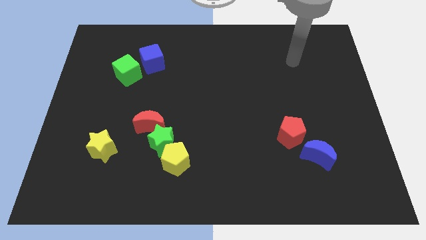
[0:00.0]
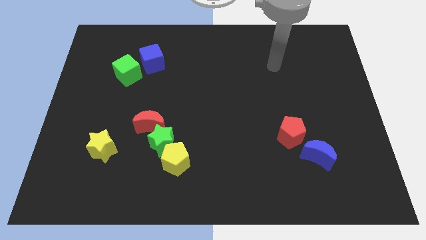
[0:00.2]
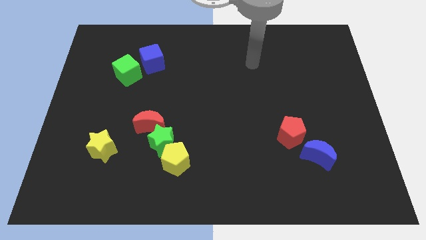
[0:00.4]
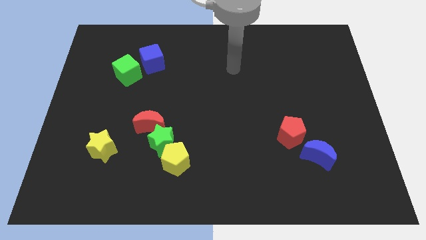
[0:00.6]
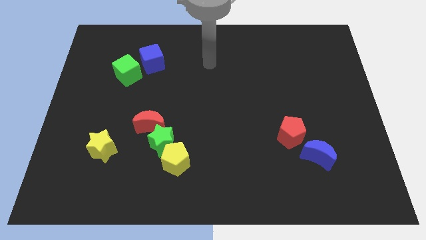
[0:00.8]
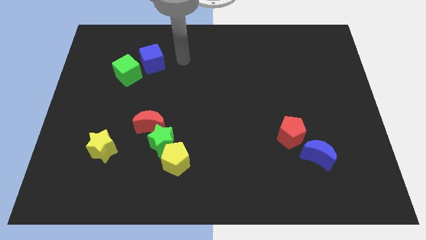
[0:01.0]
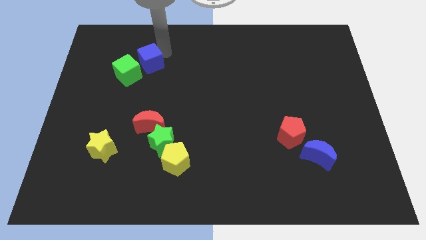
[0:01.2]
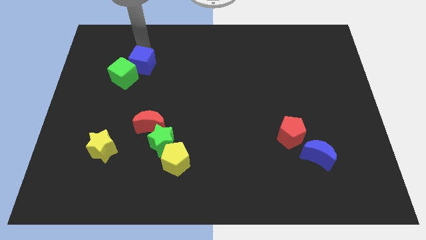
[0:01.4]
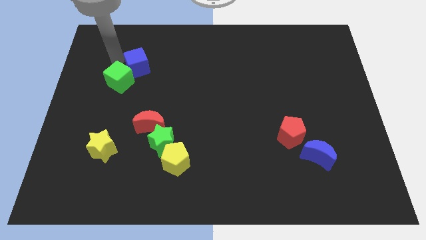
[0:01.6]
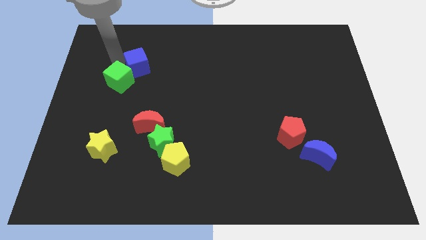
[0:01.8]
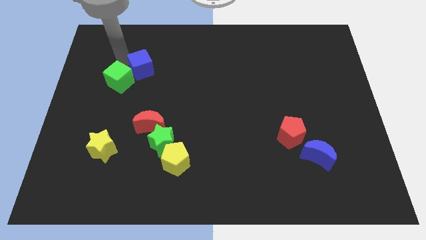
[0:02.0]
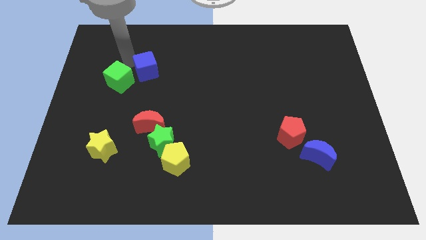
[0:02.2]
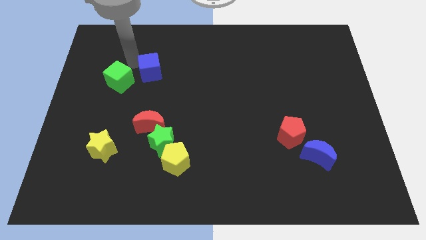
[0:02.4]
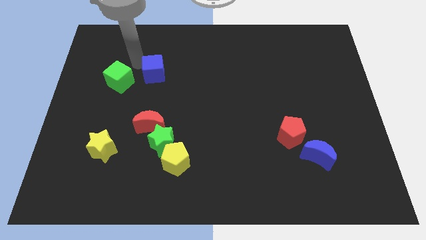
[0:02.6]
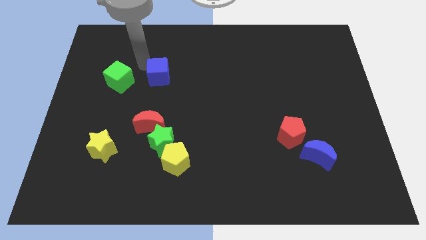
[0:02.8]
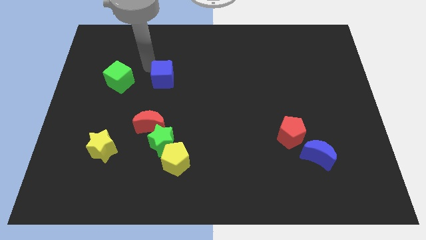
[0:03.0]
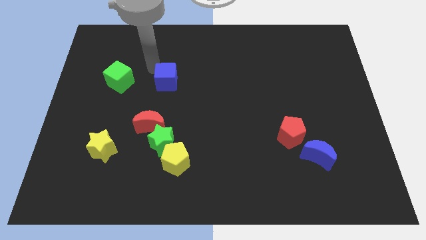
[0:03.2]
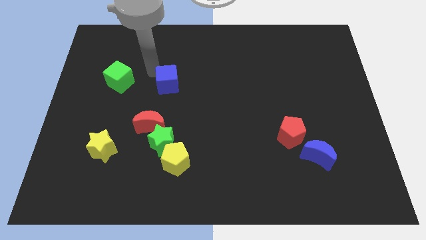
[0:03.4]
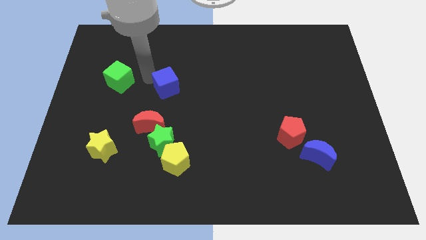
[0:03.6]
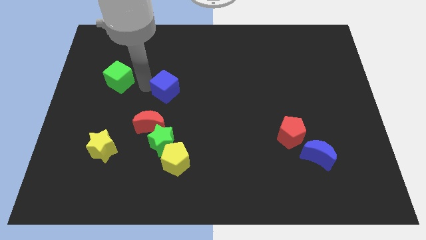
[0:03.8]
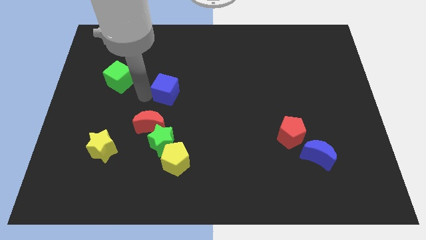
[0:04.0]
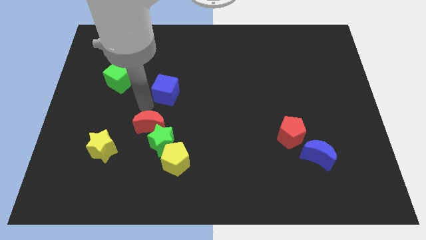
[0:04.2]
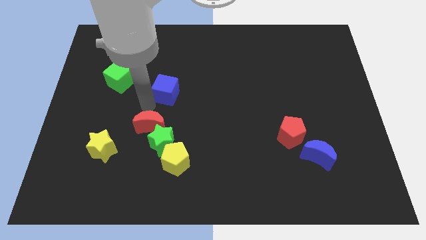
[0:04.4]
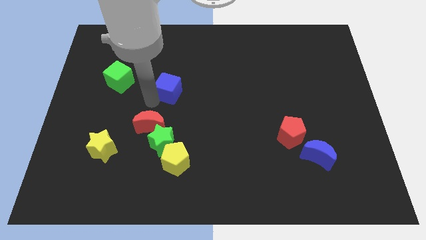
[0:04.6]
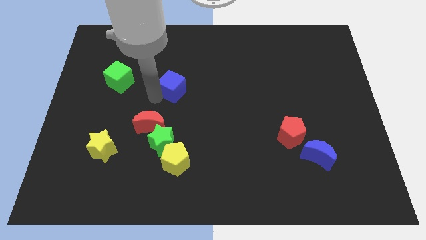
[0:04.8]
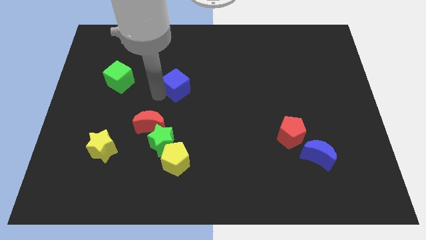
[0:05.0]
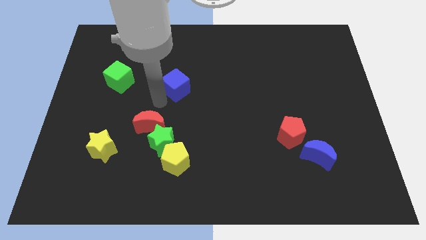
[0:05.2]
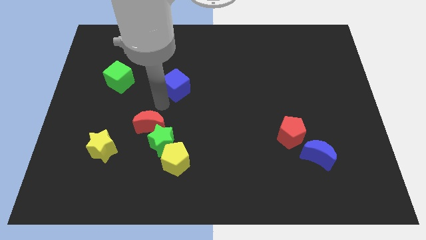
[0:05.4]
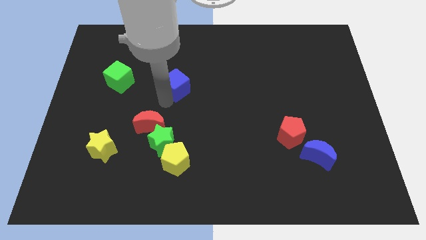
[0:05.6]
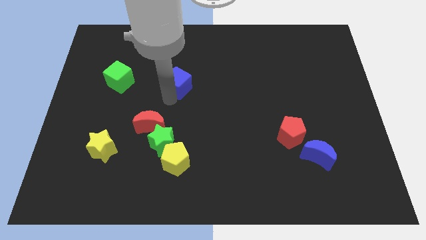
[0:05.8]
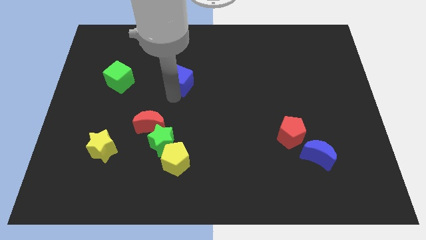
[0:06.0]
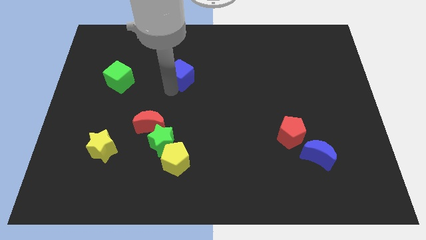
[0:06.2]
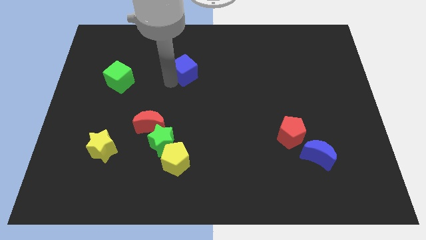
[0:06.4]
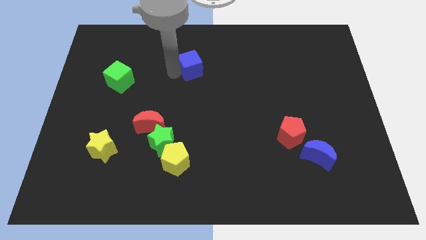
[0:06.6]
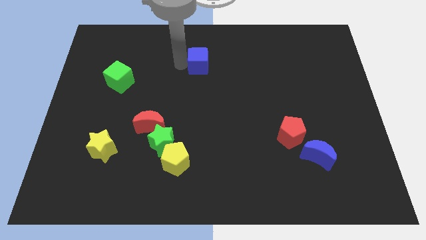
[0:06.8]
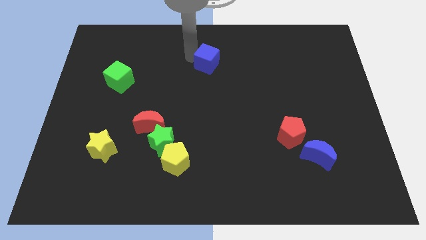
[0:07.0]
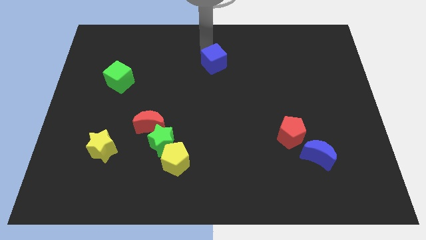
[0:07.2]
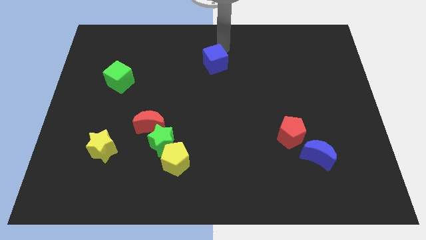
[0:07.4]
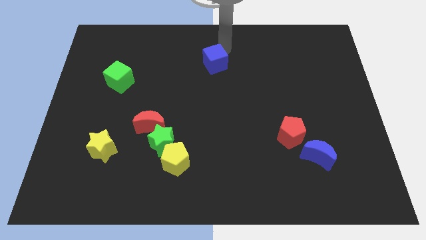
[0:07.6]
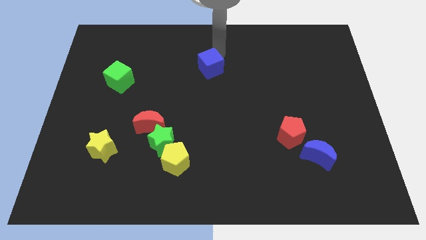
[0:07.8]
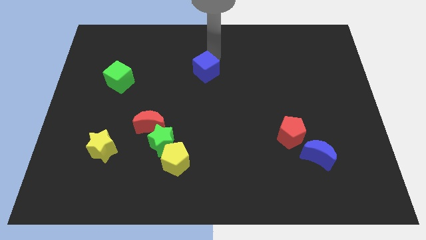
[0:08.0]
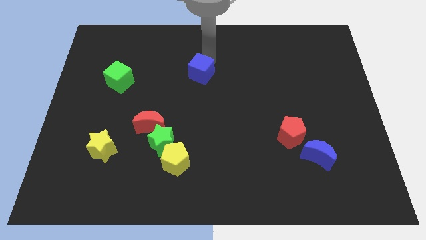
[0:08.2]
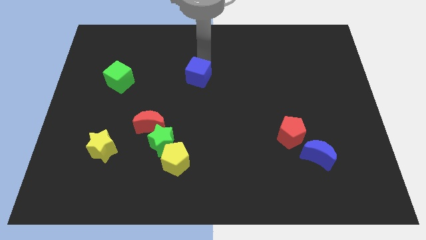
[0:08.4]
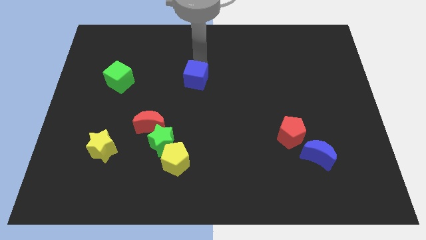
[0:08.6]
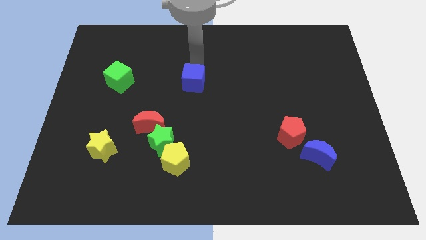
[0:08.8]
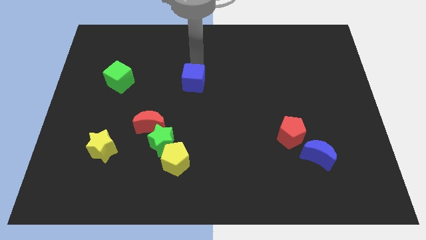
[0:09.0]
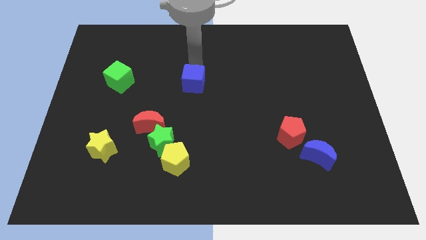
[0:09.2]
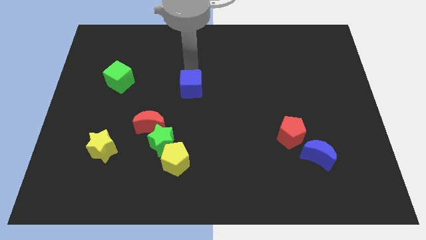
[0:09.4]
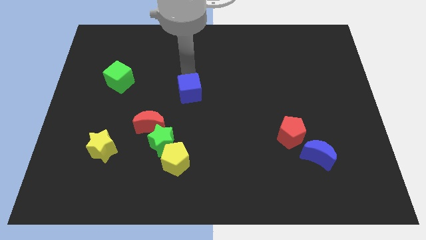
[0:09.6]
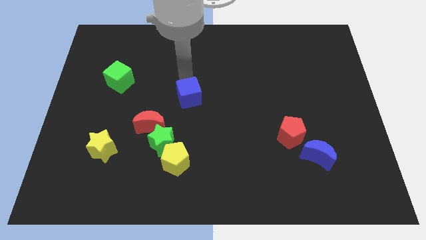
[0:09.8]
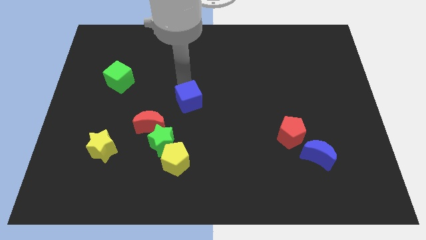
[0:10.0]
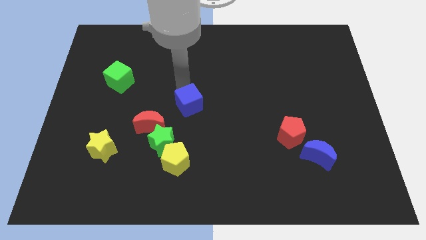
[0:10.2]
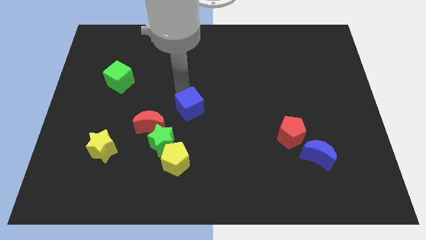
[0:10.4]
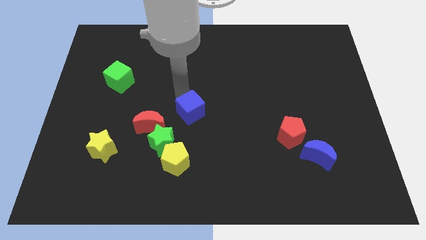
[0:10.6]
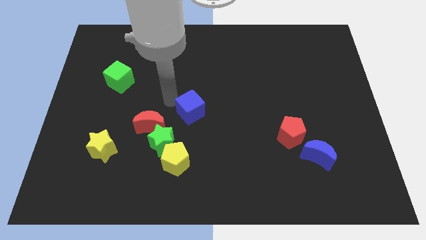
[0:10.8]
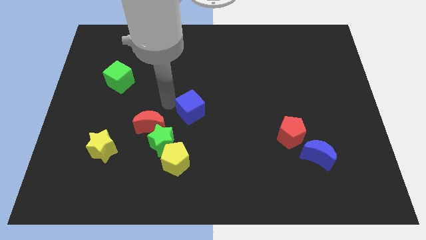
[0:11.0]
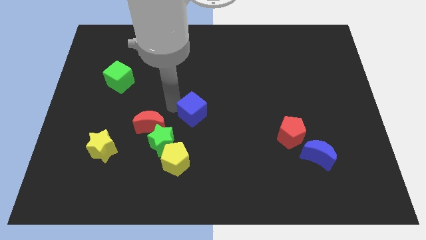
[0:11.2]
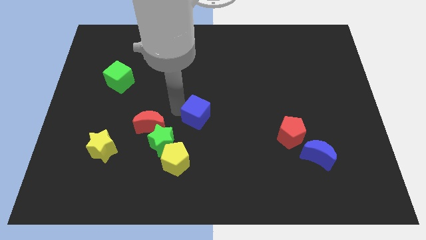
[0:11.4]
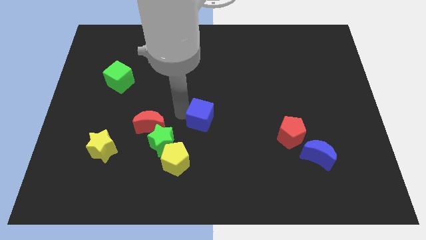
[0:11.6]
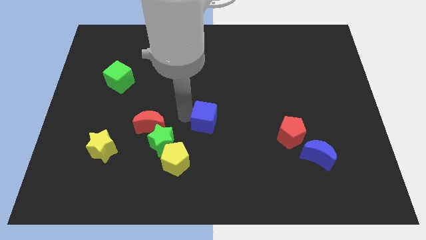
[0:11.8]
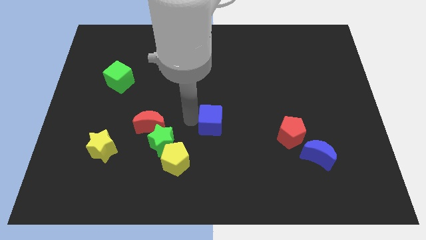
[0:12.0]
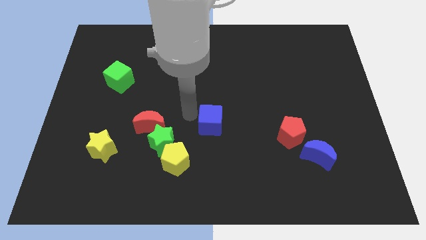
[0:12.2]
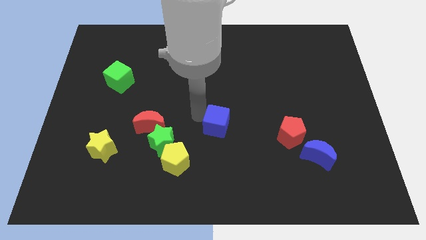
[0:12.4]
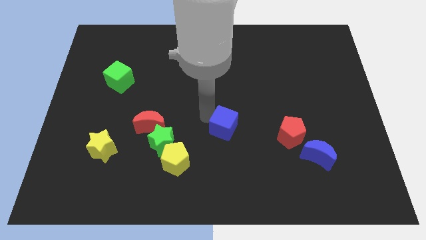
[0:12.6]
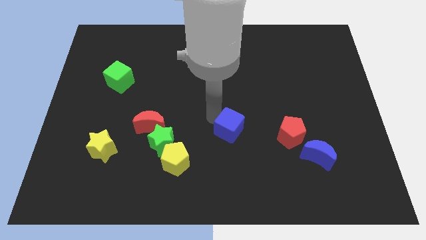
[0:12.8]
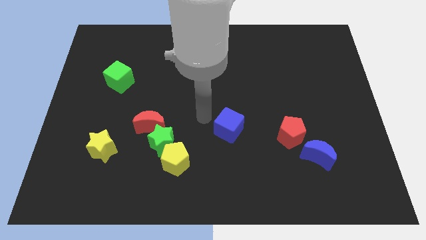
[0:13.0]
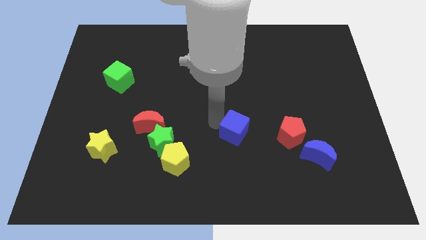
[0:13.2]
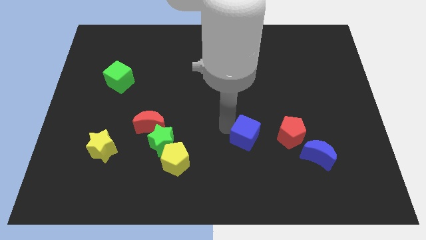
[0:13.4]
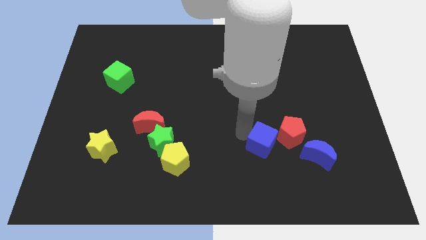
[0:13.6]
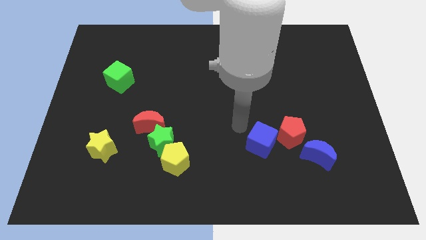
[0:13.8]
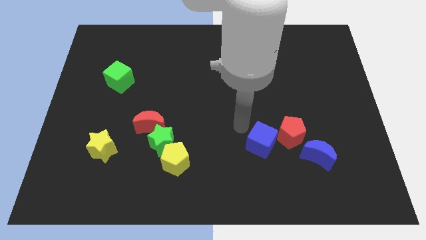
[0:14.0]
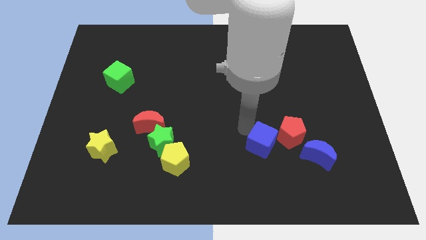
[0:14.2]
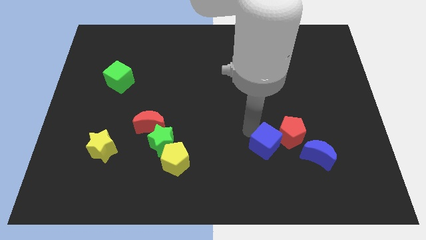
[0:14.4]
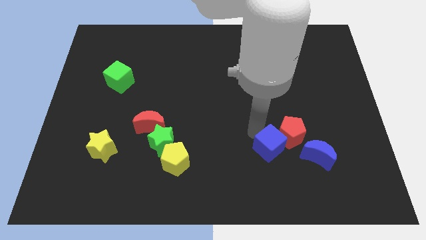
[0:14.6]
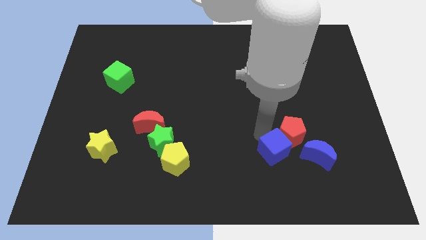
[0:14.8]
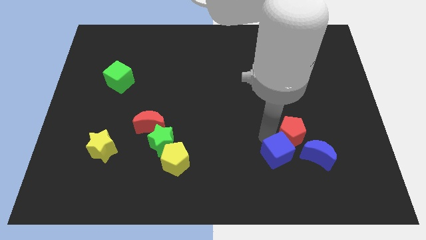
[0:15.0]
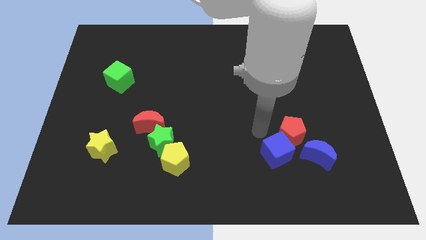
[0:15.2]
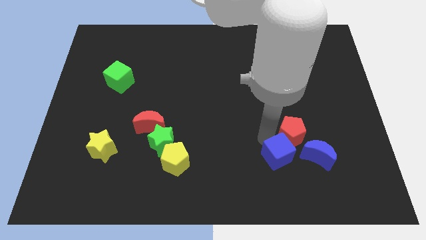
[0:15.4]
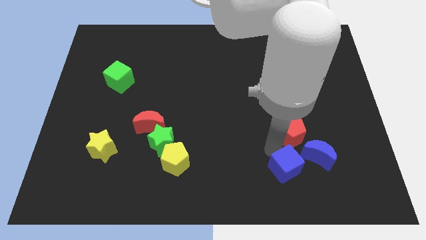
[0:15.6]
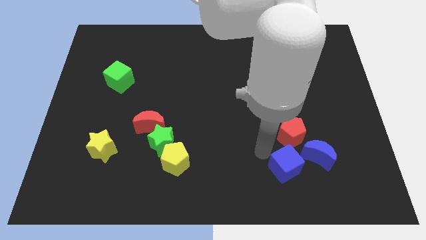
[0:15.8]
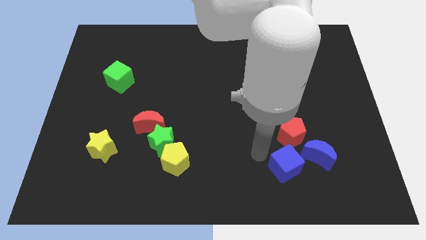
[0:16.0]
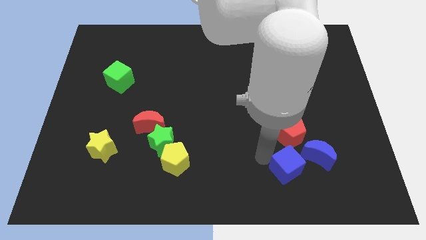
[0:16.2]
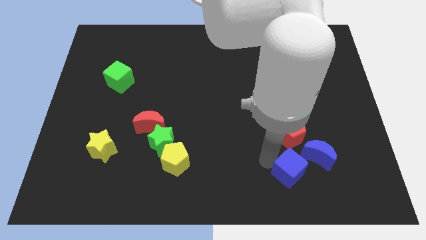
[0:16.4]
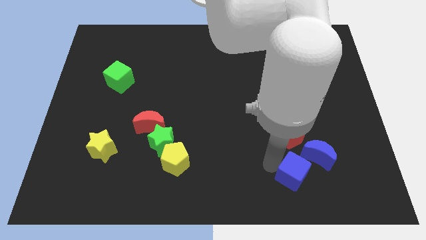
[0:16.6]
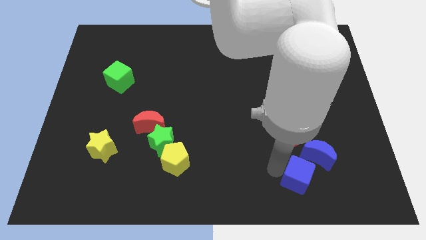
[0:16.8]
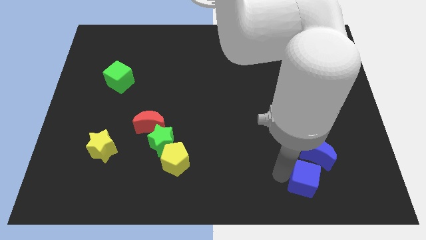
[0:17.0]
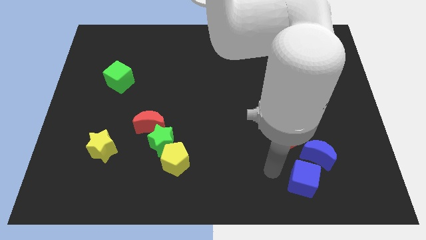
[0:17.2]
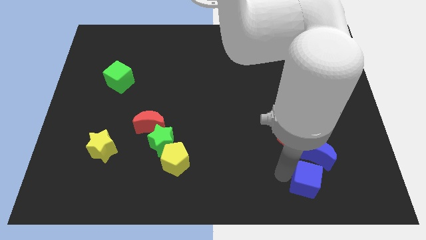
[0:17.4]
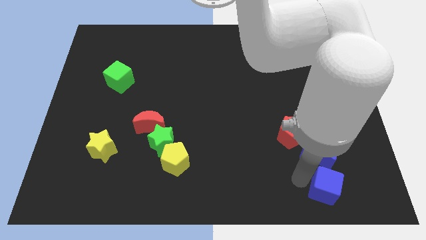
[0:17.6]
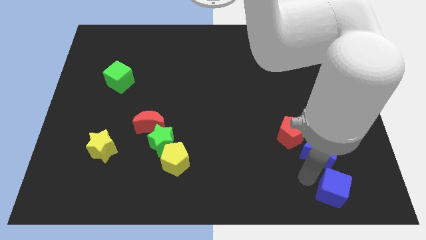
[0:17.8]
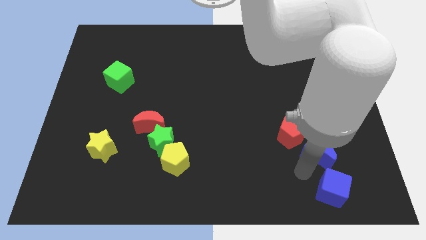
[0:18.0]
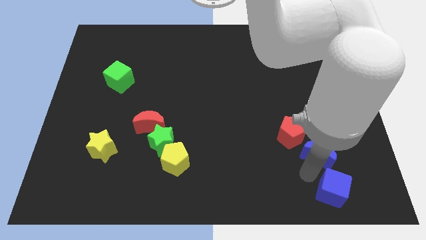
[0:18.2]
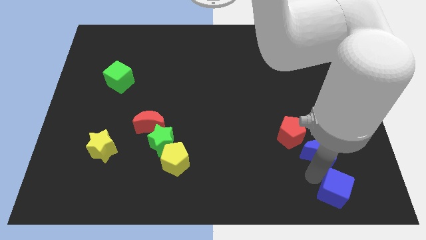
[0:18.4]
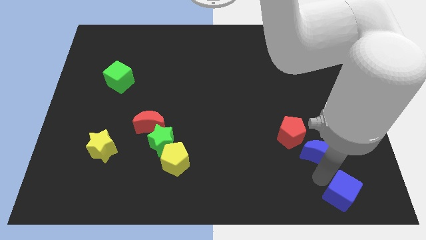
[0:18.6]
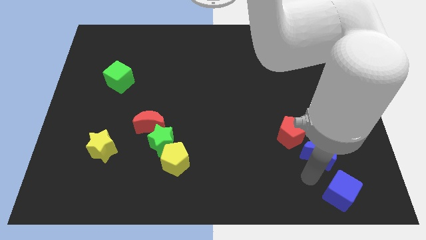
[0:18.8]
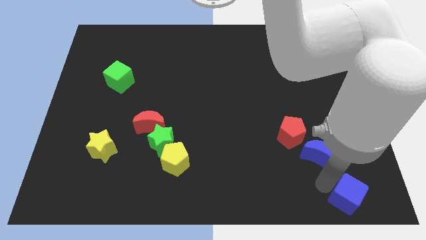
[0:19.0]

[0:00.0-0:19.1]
move the blue cube to the bottom right corner
